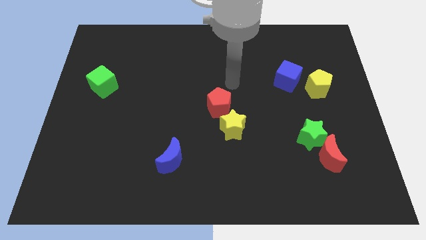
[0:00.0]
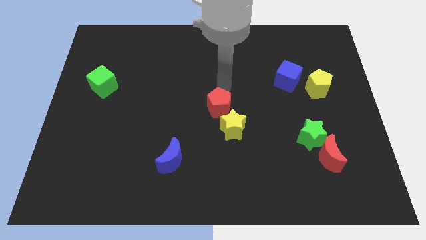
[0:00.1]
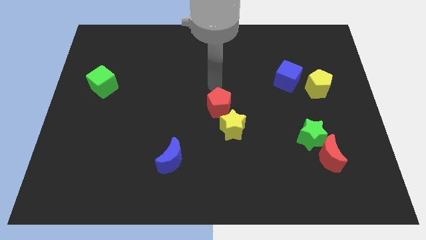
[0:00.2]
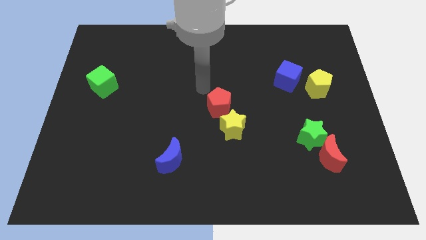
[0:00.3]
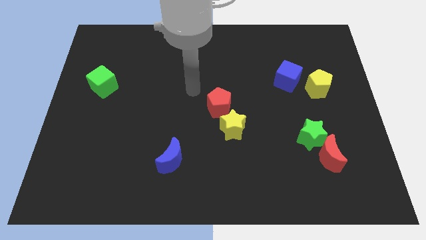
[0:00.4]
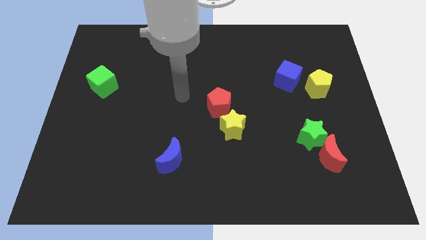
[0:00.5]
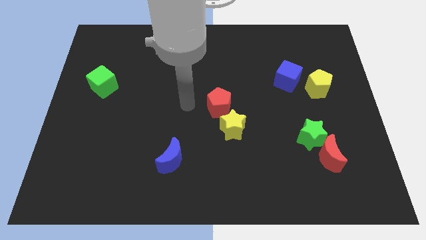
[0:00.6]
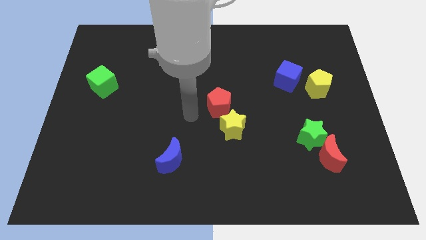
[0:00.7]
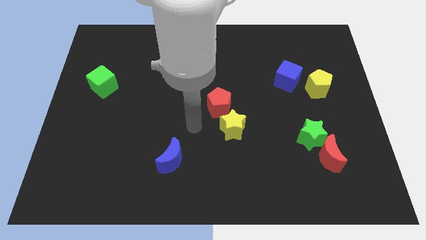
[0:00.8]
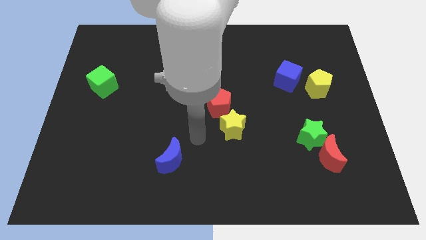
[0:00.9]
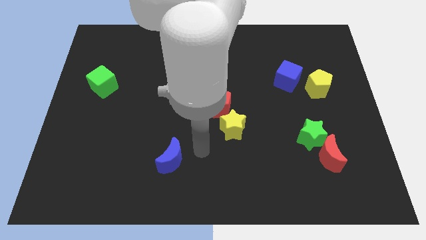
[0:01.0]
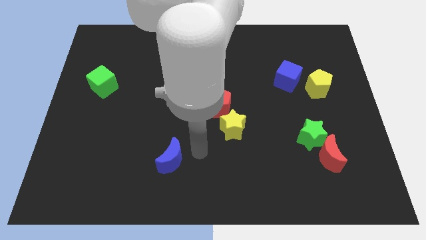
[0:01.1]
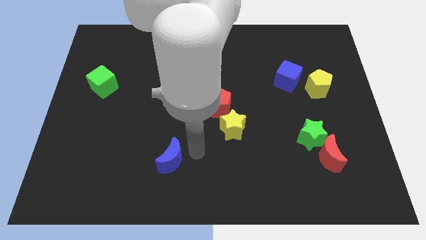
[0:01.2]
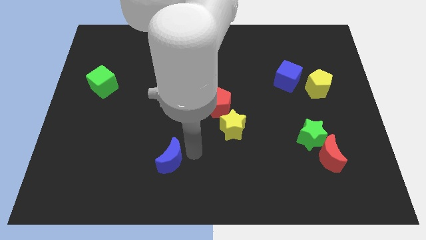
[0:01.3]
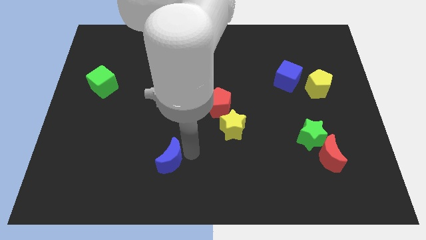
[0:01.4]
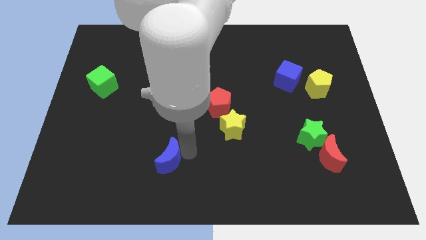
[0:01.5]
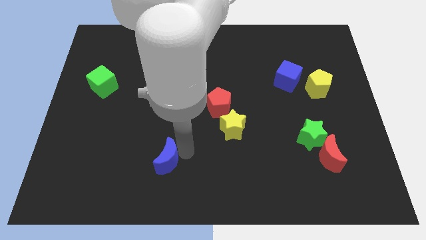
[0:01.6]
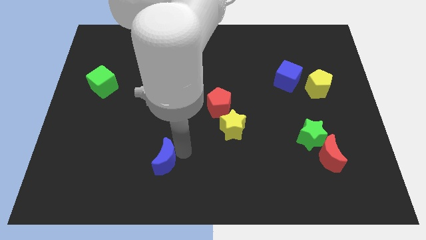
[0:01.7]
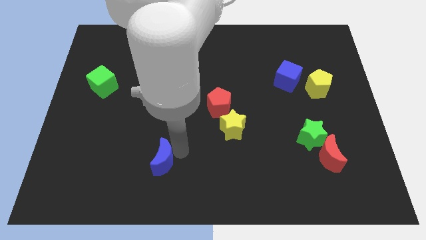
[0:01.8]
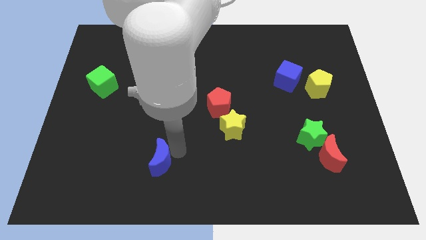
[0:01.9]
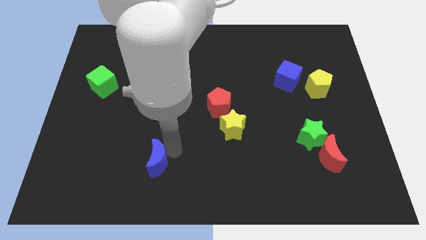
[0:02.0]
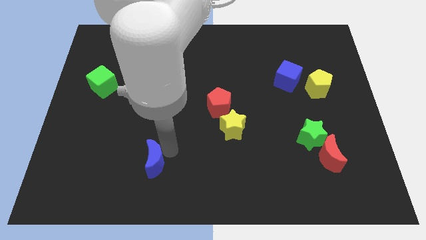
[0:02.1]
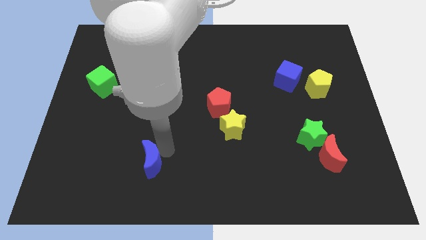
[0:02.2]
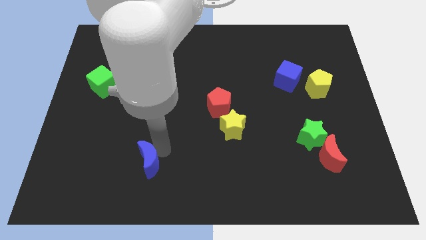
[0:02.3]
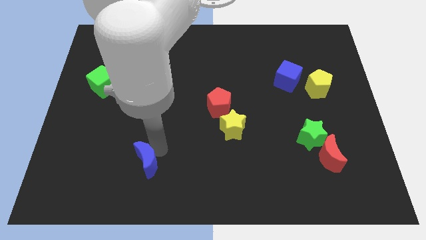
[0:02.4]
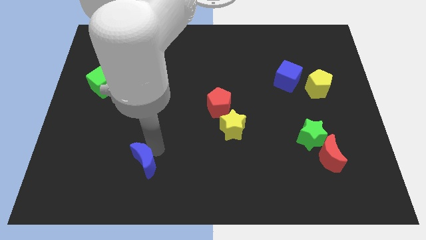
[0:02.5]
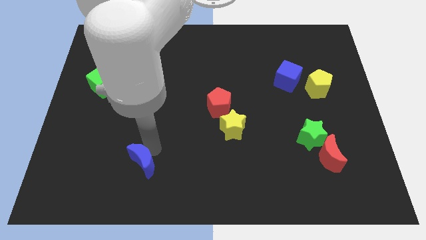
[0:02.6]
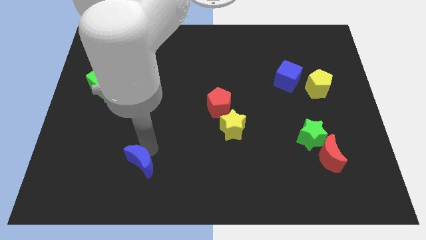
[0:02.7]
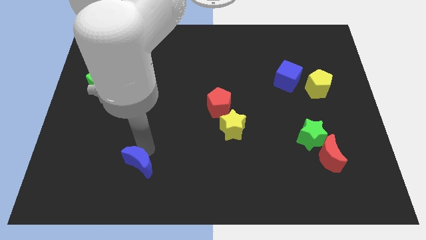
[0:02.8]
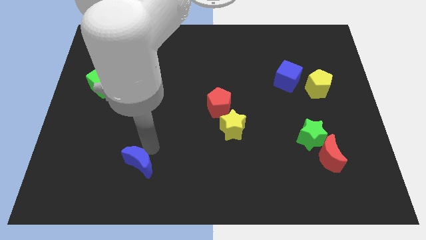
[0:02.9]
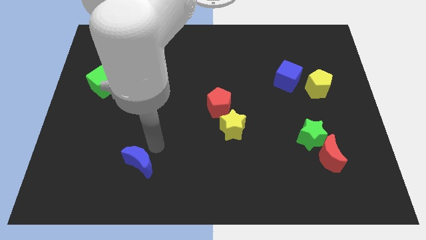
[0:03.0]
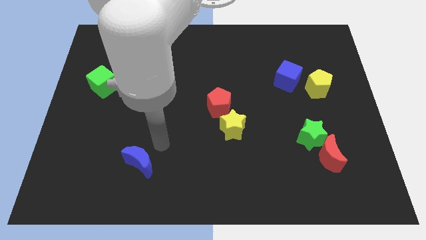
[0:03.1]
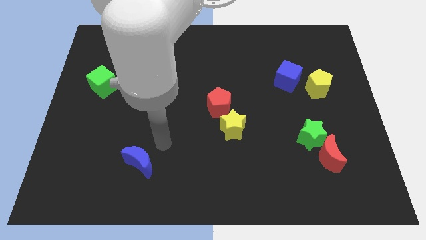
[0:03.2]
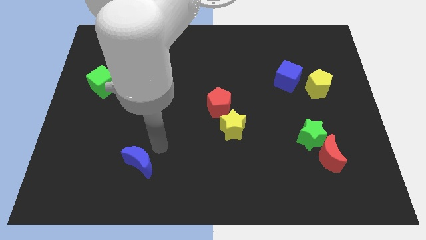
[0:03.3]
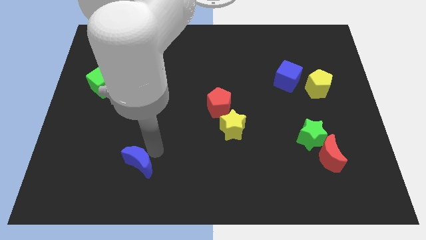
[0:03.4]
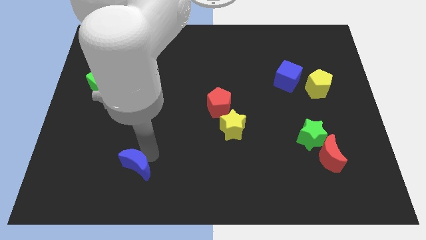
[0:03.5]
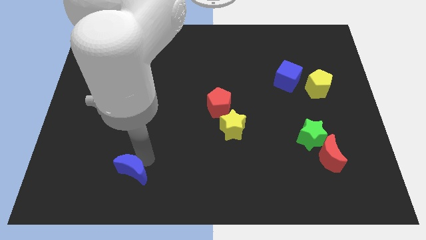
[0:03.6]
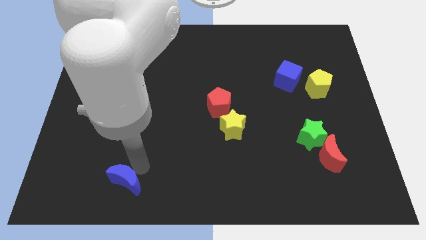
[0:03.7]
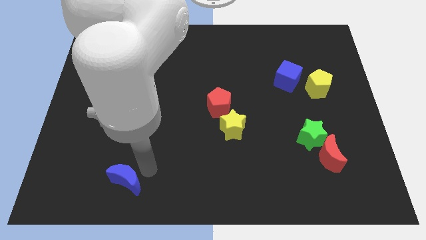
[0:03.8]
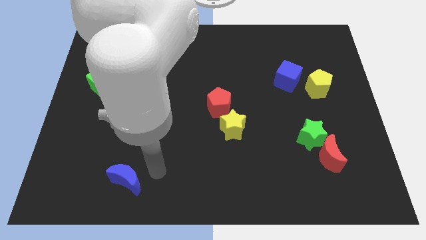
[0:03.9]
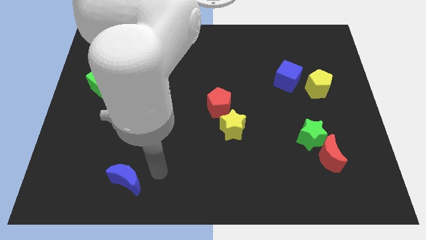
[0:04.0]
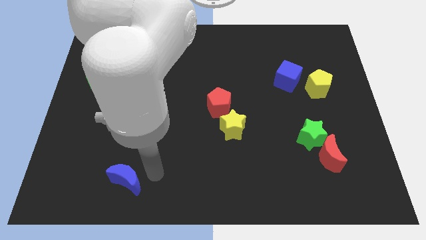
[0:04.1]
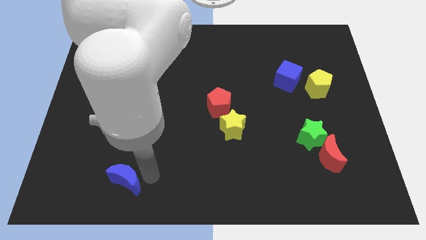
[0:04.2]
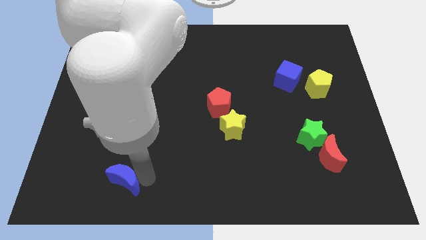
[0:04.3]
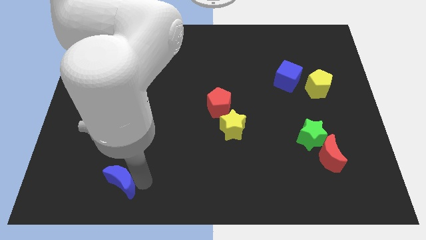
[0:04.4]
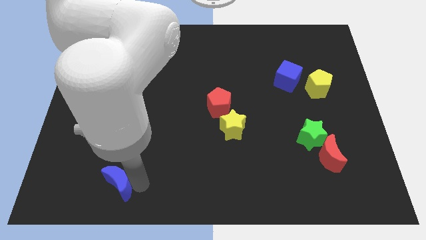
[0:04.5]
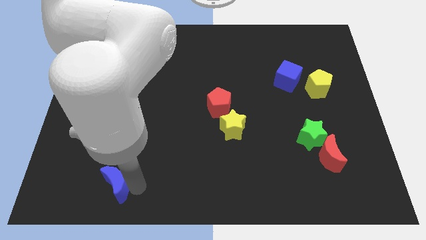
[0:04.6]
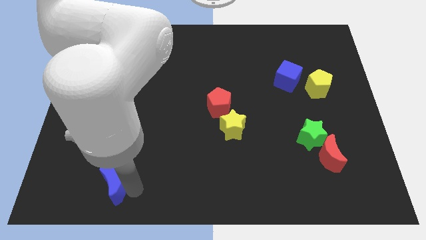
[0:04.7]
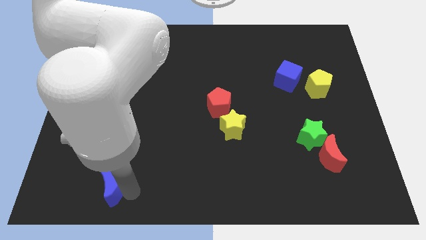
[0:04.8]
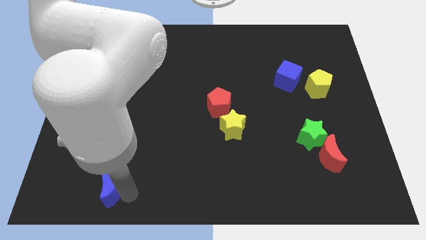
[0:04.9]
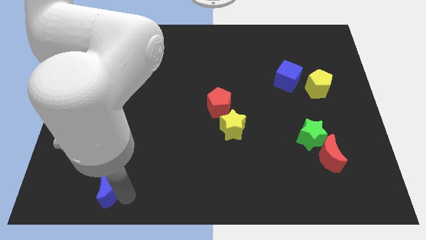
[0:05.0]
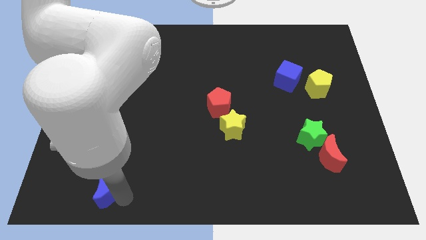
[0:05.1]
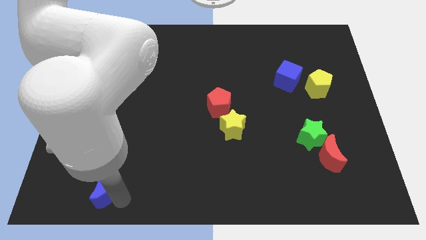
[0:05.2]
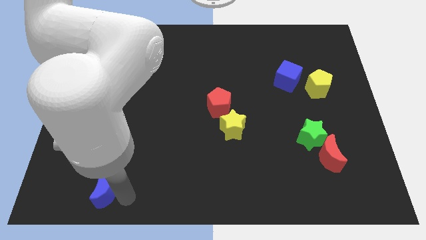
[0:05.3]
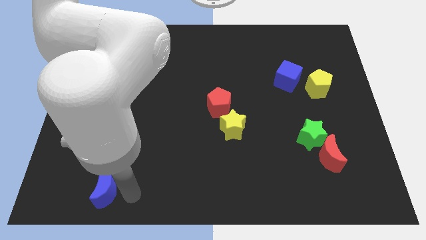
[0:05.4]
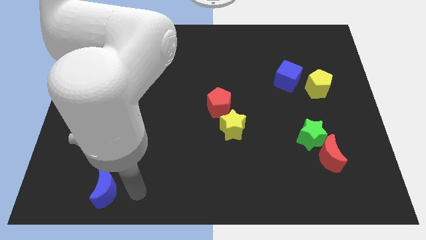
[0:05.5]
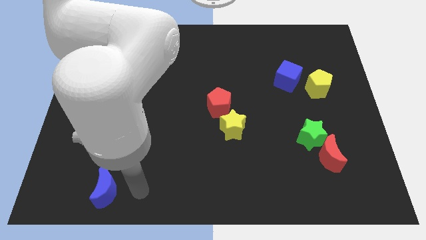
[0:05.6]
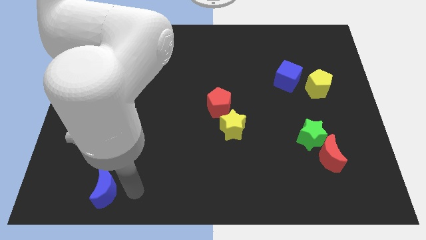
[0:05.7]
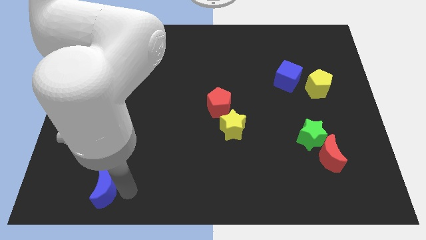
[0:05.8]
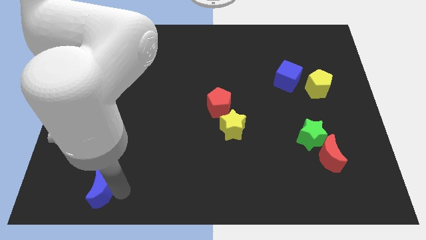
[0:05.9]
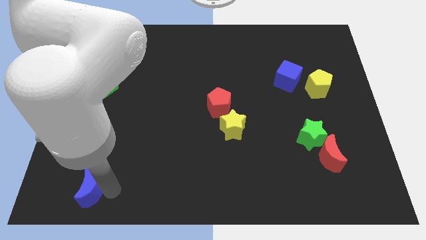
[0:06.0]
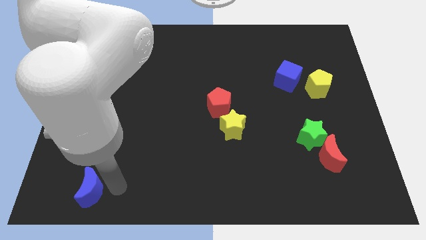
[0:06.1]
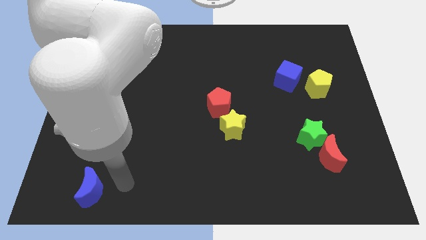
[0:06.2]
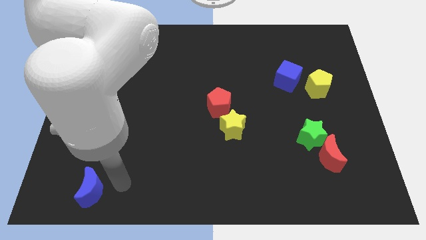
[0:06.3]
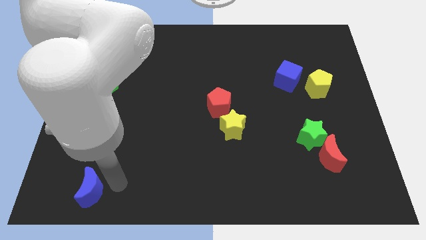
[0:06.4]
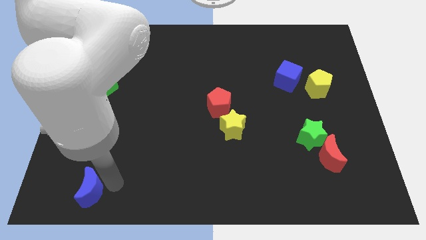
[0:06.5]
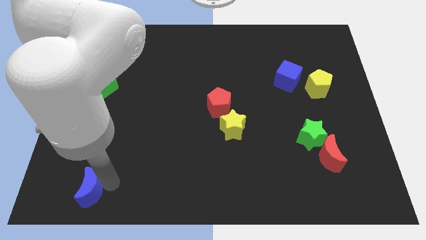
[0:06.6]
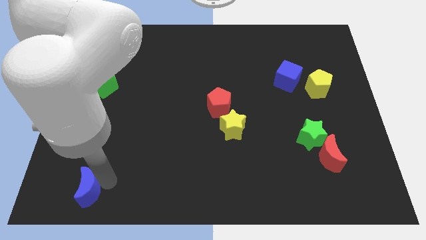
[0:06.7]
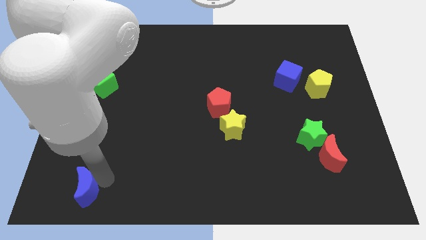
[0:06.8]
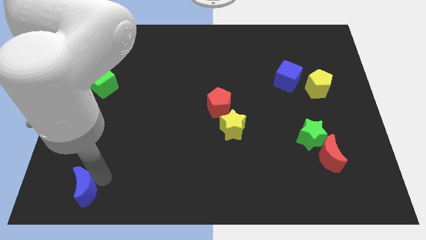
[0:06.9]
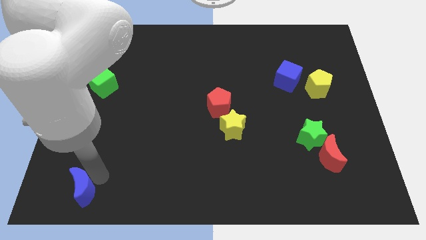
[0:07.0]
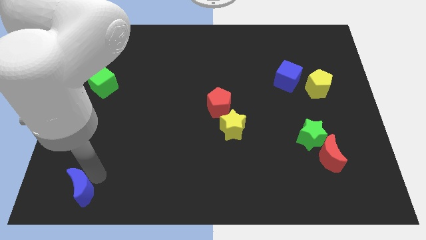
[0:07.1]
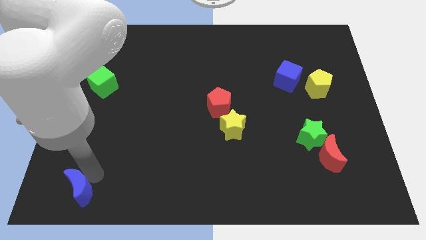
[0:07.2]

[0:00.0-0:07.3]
put the blue moon to the bottom left of the board
